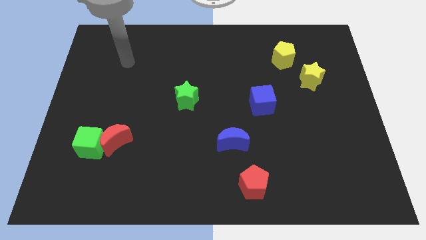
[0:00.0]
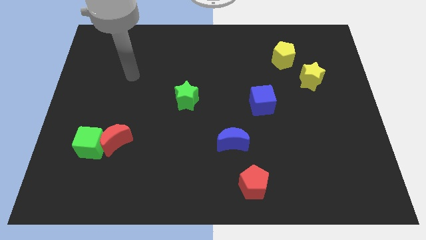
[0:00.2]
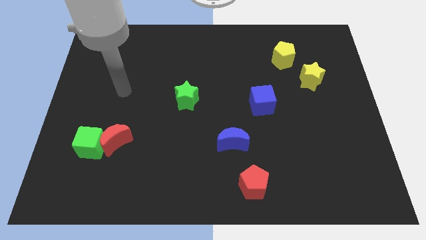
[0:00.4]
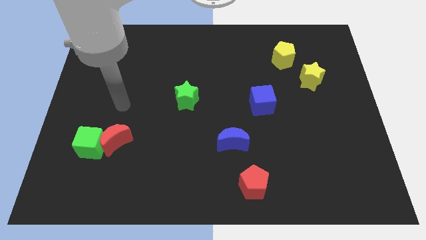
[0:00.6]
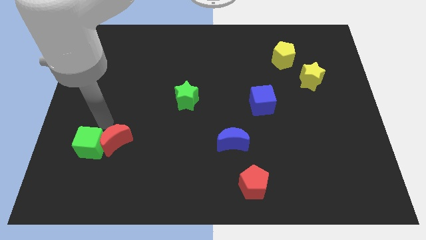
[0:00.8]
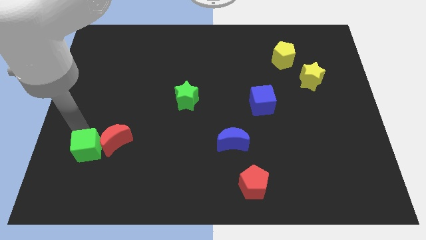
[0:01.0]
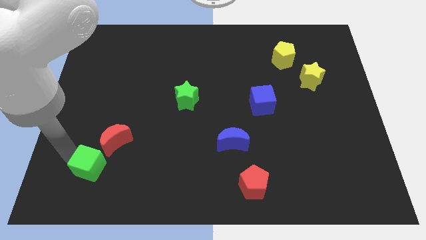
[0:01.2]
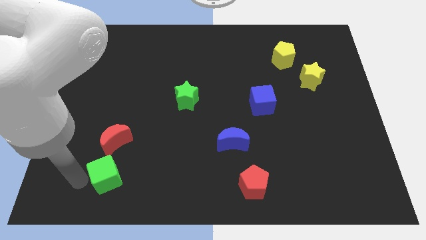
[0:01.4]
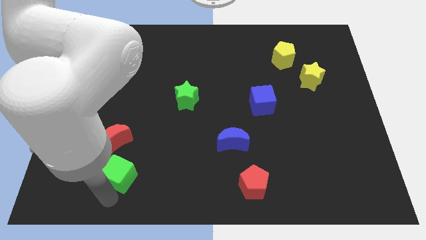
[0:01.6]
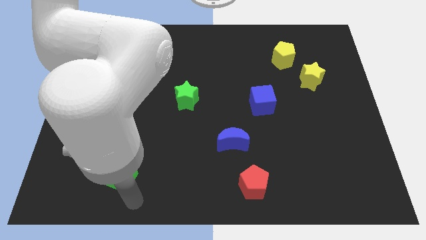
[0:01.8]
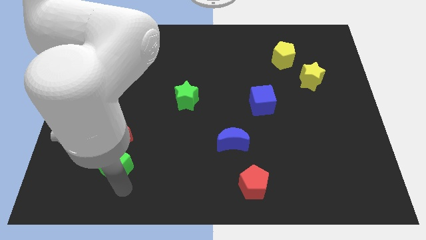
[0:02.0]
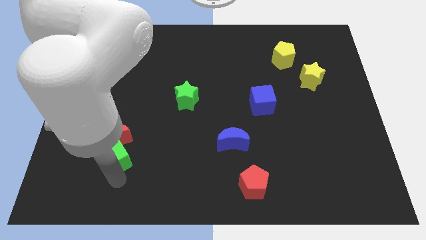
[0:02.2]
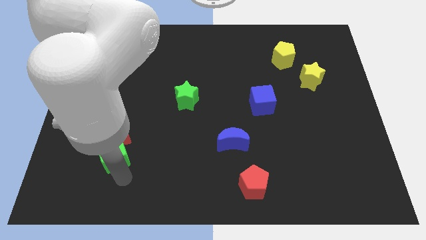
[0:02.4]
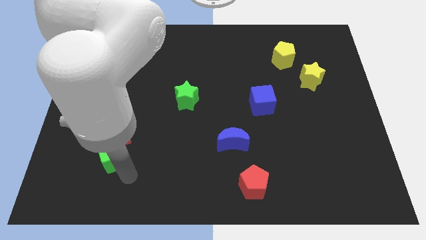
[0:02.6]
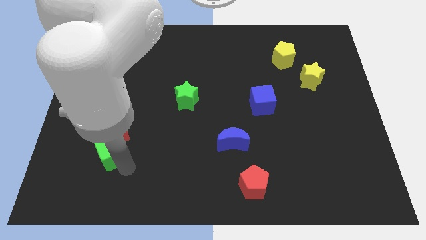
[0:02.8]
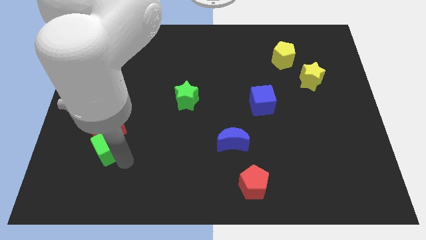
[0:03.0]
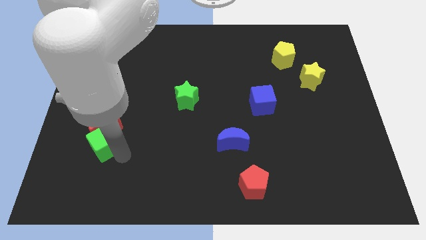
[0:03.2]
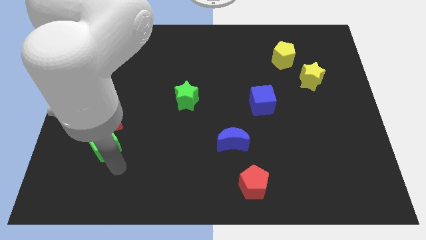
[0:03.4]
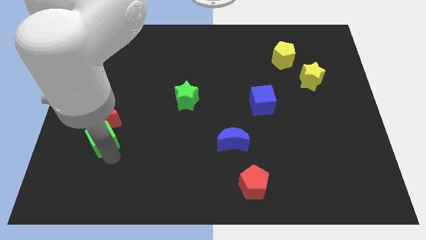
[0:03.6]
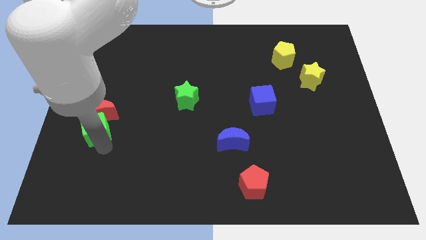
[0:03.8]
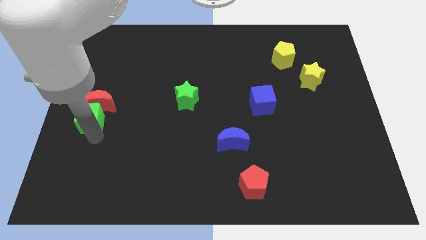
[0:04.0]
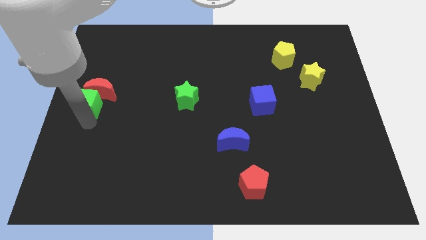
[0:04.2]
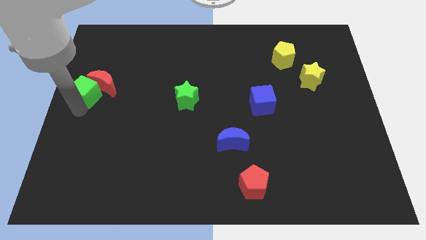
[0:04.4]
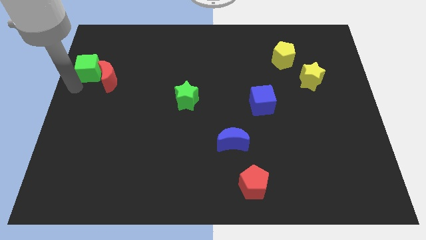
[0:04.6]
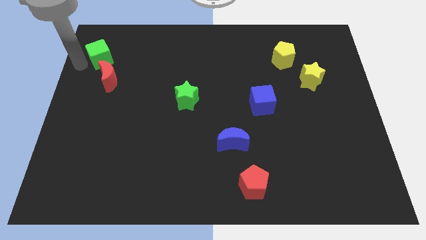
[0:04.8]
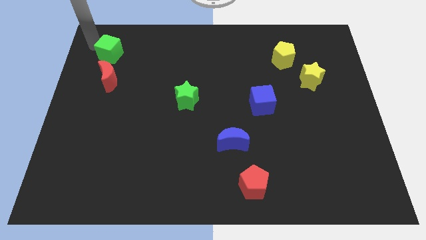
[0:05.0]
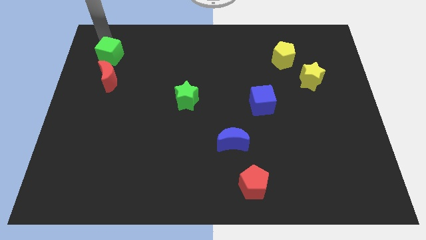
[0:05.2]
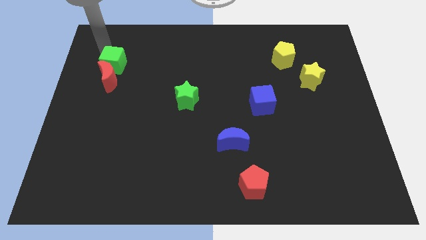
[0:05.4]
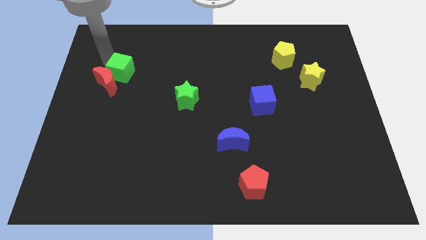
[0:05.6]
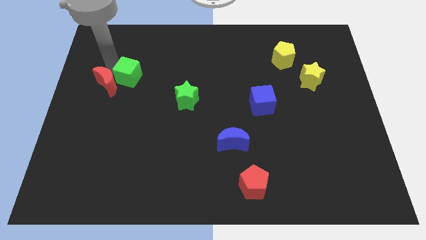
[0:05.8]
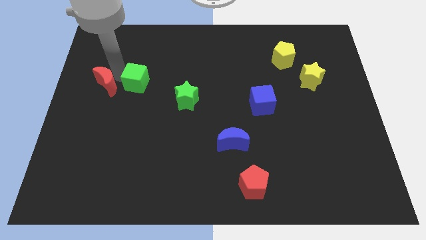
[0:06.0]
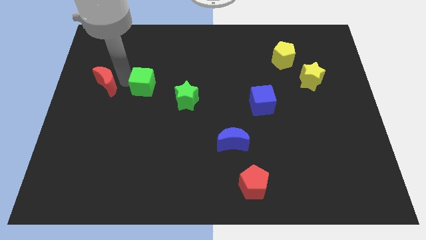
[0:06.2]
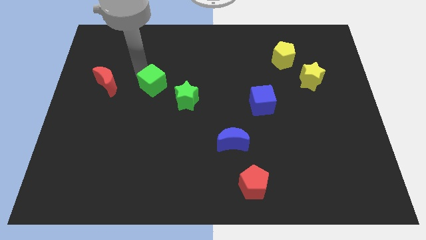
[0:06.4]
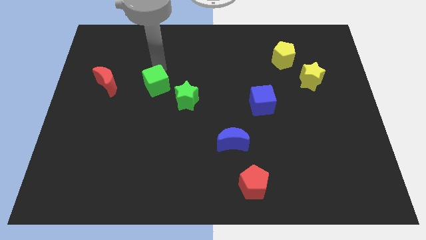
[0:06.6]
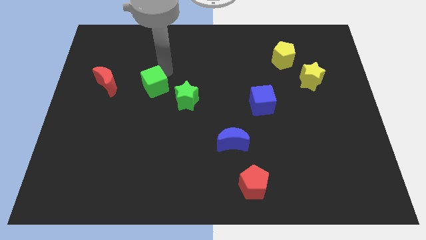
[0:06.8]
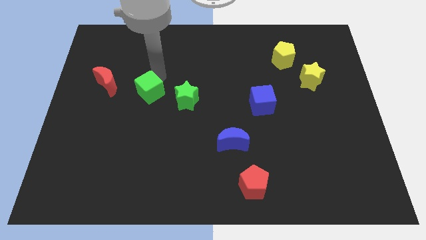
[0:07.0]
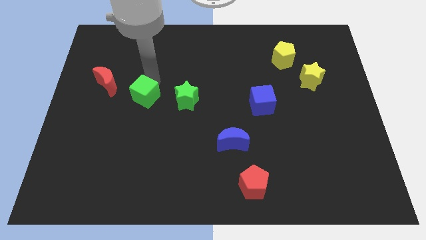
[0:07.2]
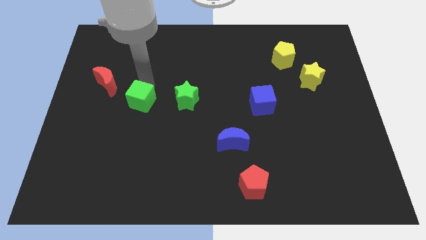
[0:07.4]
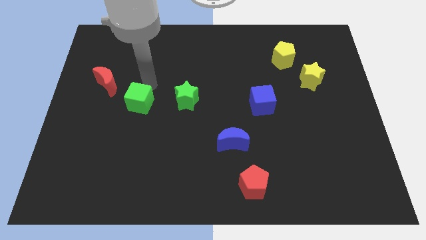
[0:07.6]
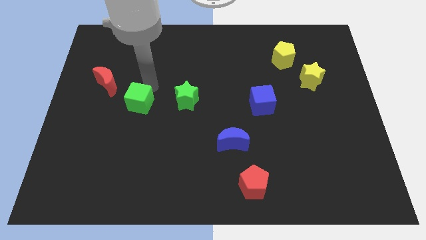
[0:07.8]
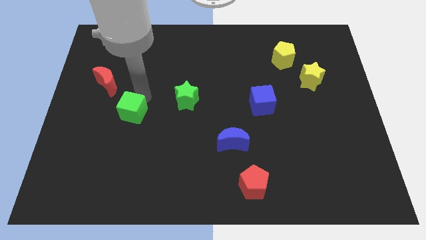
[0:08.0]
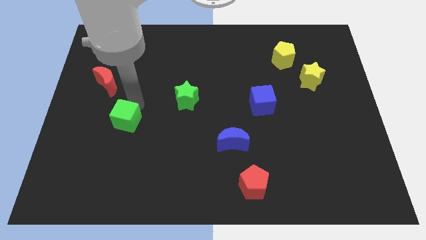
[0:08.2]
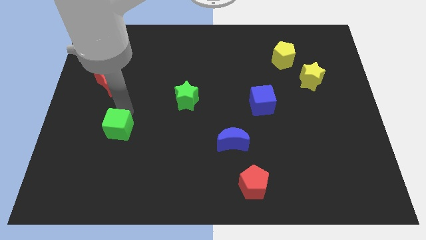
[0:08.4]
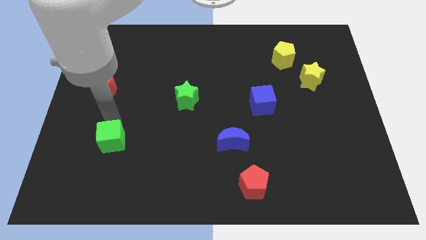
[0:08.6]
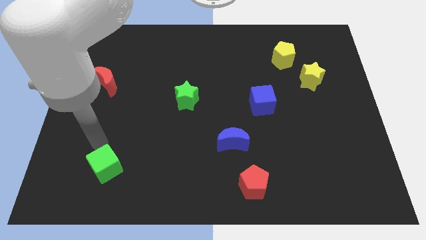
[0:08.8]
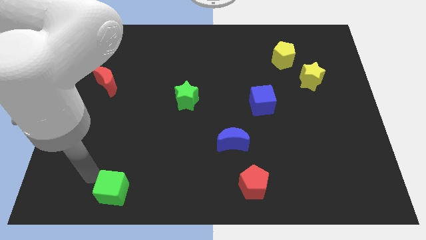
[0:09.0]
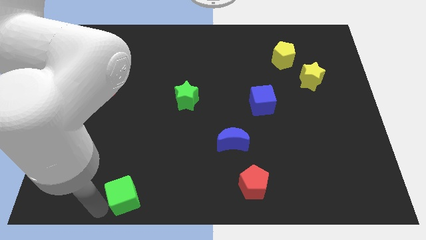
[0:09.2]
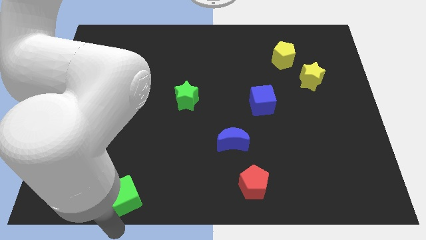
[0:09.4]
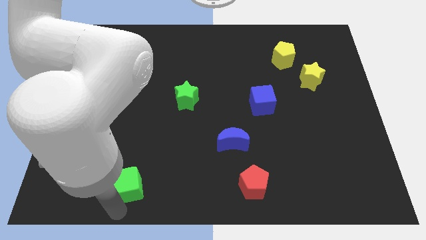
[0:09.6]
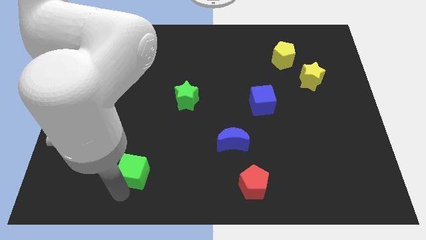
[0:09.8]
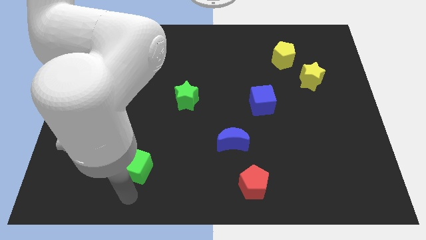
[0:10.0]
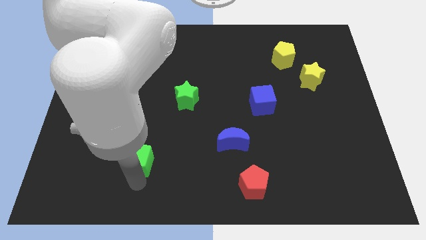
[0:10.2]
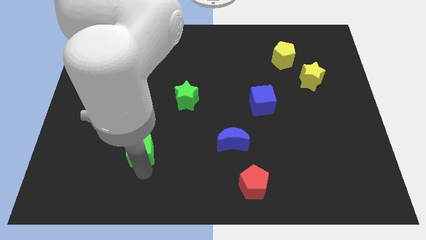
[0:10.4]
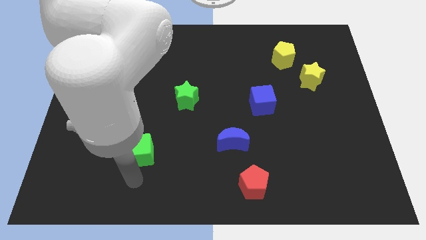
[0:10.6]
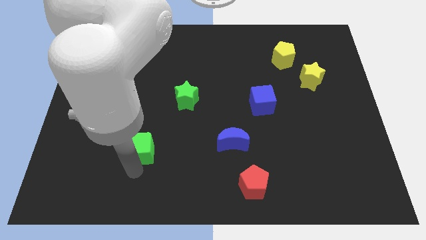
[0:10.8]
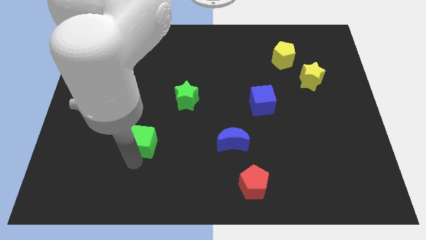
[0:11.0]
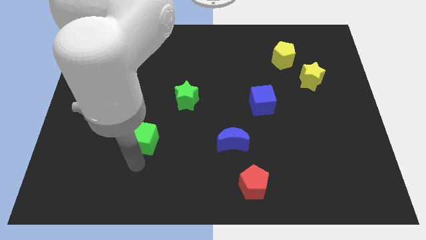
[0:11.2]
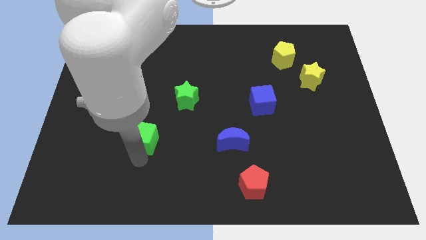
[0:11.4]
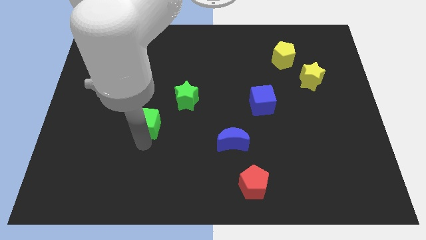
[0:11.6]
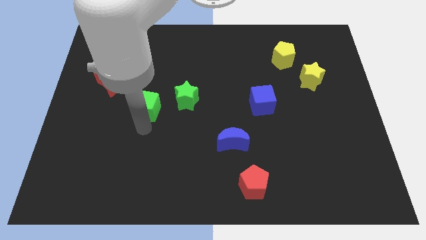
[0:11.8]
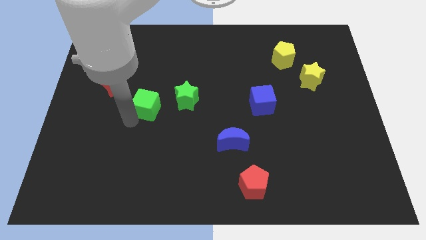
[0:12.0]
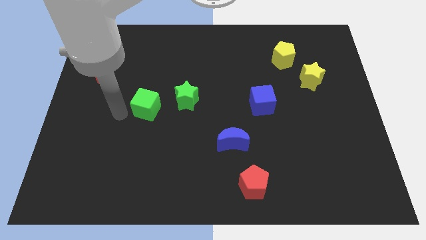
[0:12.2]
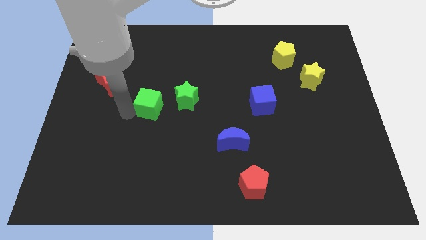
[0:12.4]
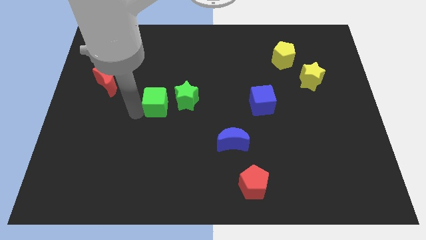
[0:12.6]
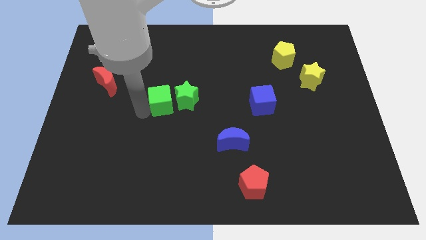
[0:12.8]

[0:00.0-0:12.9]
slide the green cube to the green star

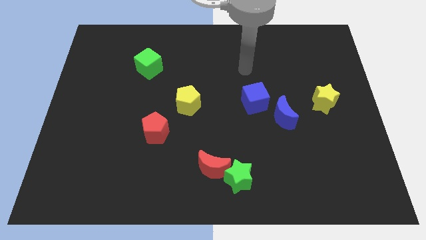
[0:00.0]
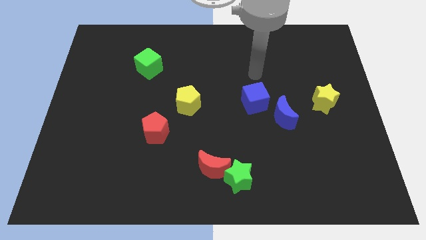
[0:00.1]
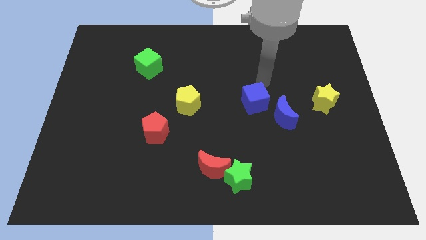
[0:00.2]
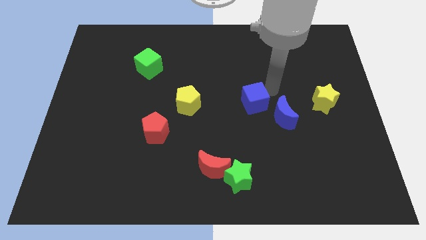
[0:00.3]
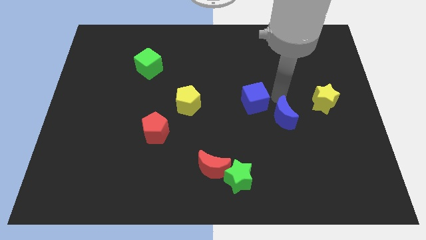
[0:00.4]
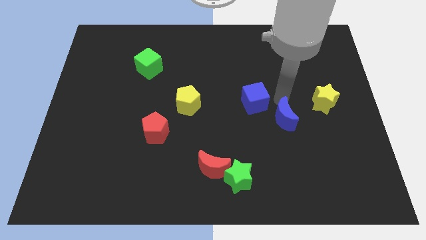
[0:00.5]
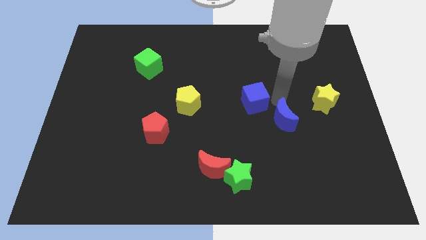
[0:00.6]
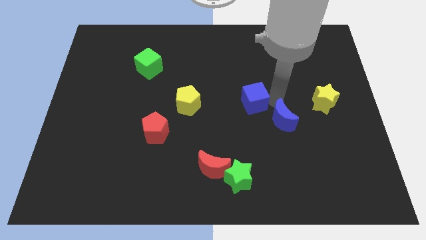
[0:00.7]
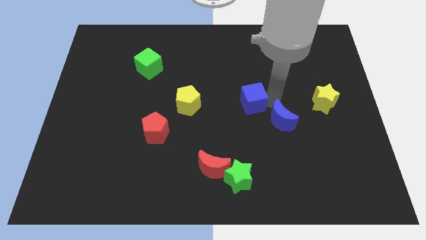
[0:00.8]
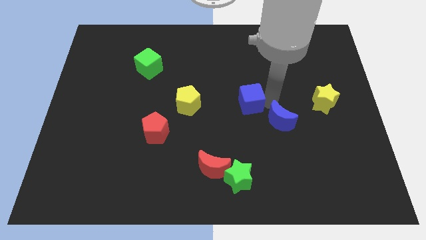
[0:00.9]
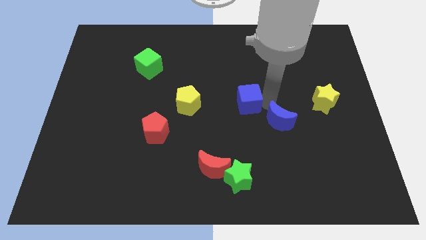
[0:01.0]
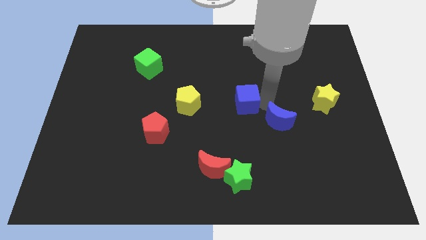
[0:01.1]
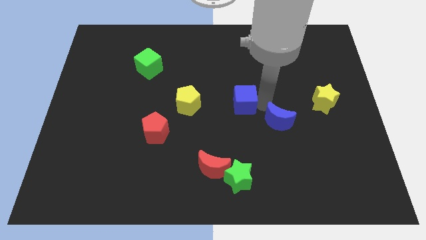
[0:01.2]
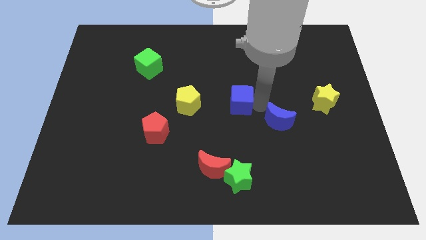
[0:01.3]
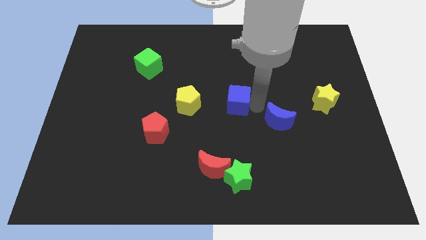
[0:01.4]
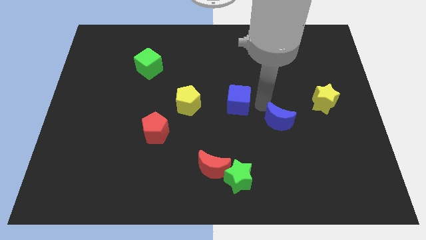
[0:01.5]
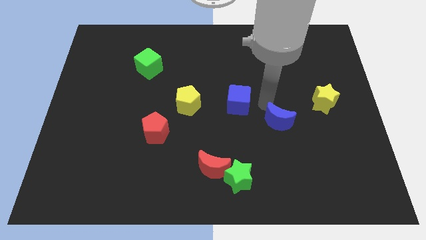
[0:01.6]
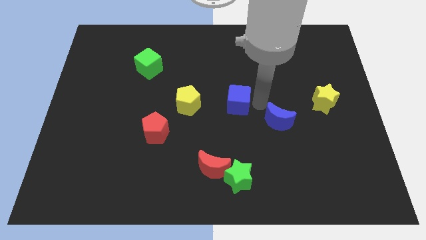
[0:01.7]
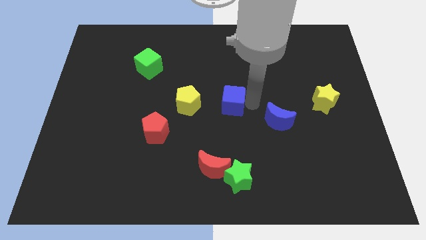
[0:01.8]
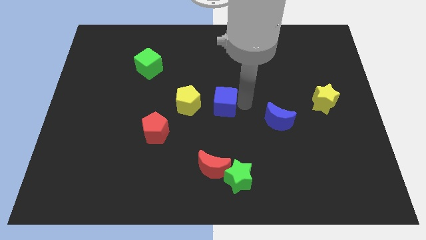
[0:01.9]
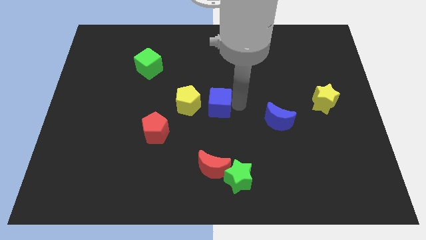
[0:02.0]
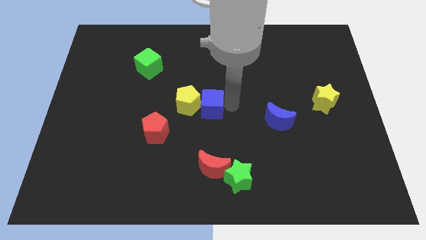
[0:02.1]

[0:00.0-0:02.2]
push the blue cube close to the yellow pentagon
